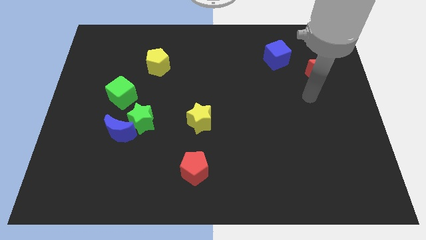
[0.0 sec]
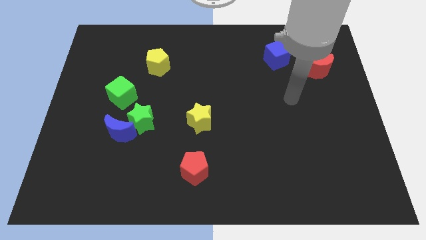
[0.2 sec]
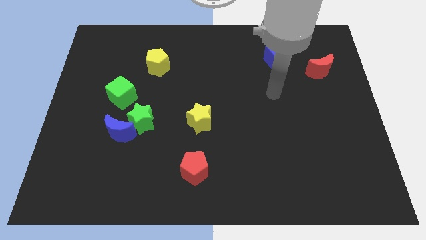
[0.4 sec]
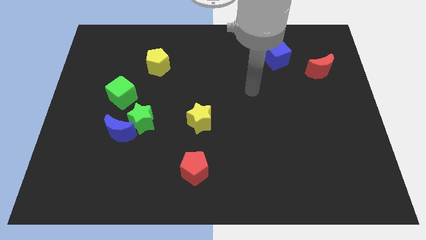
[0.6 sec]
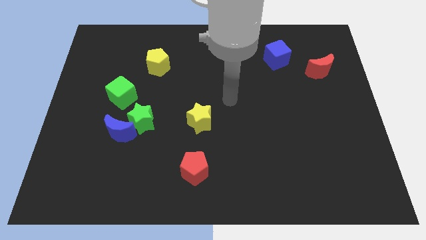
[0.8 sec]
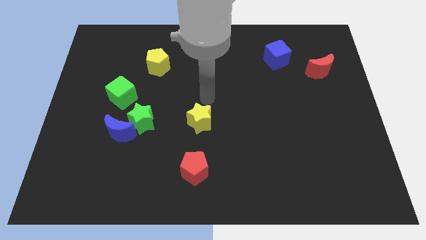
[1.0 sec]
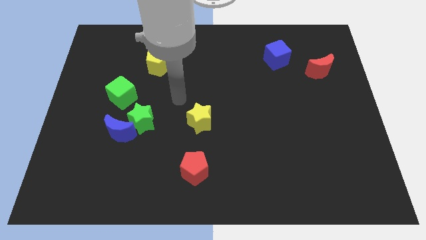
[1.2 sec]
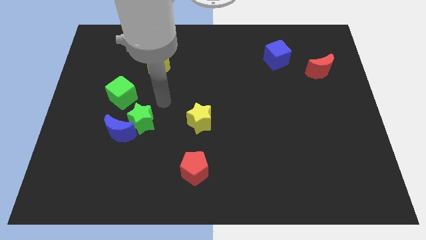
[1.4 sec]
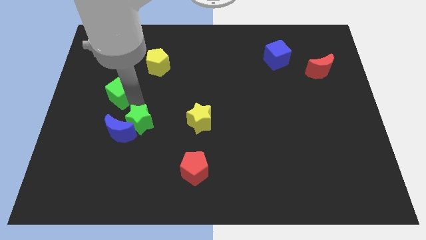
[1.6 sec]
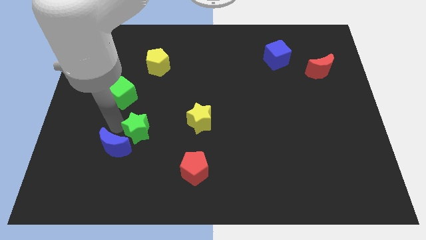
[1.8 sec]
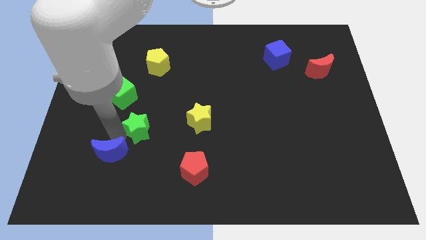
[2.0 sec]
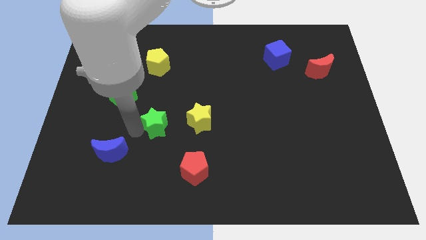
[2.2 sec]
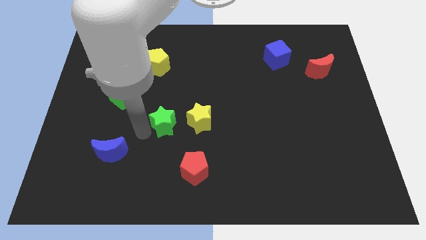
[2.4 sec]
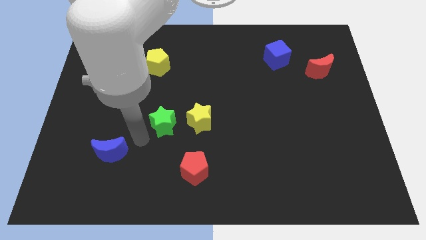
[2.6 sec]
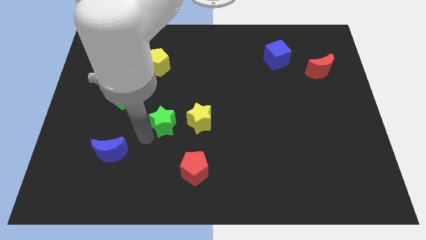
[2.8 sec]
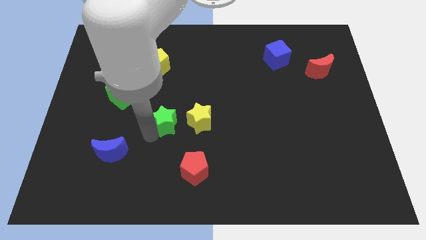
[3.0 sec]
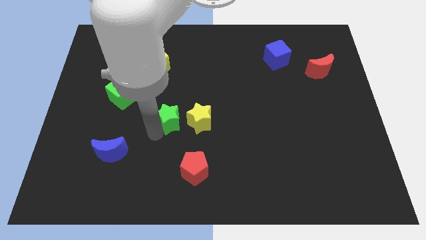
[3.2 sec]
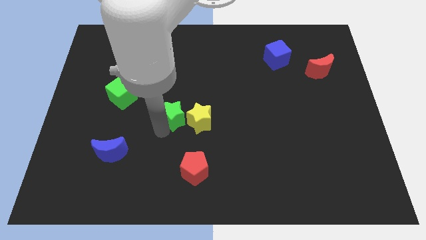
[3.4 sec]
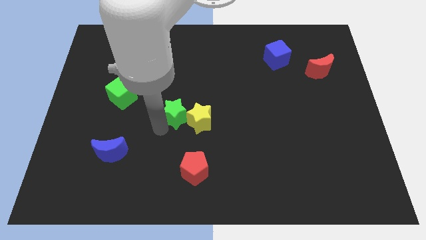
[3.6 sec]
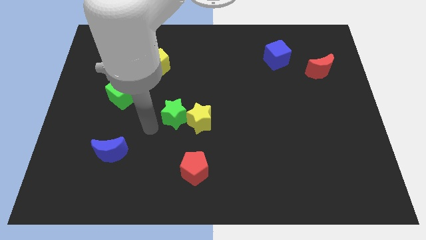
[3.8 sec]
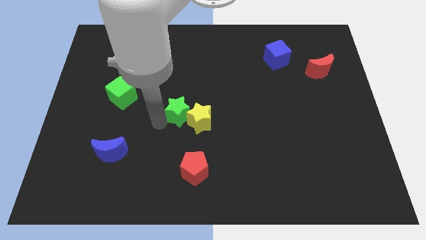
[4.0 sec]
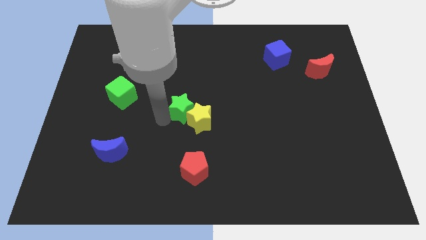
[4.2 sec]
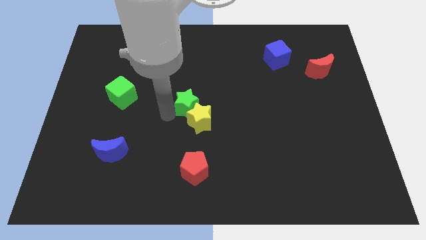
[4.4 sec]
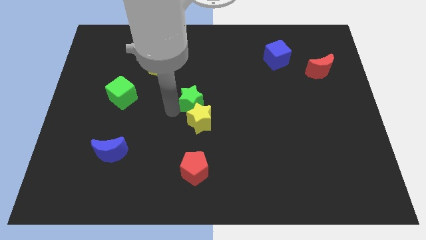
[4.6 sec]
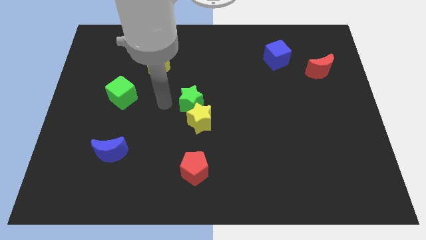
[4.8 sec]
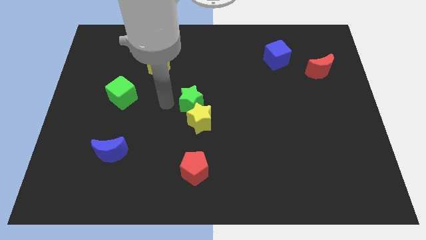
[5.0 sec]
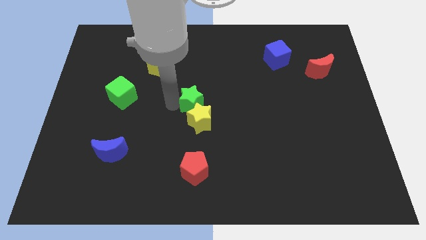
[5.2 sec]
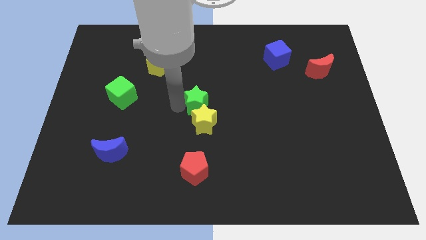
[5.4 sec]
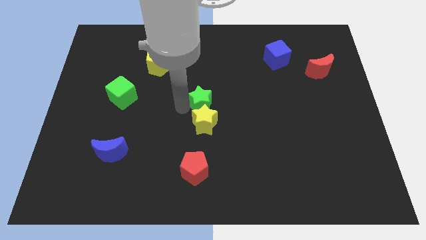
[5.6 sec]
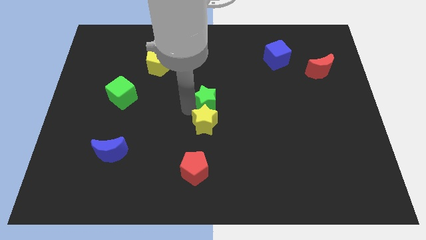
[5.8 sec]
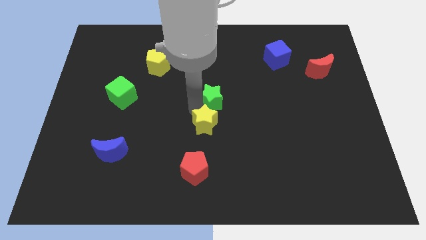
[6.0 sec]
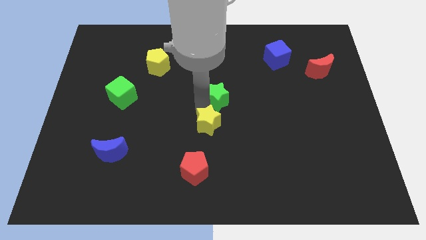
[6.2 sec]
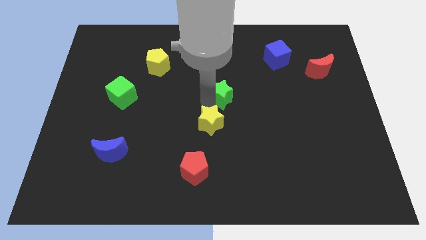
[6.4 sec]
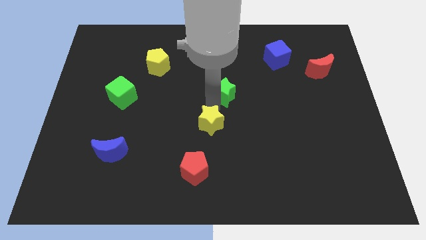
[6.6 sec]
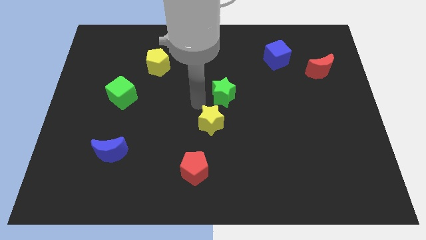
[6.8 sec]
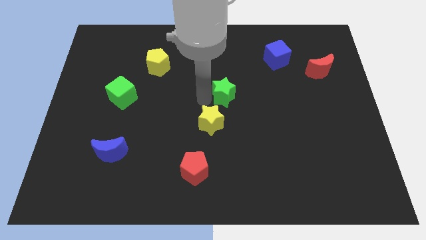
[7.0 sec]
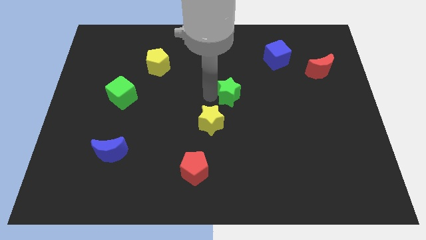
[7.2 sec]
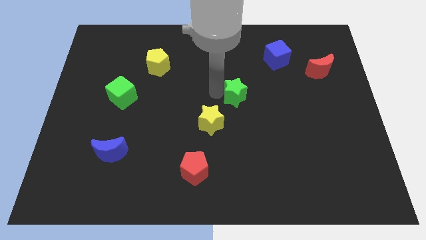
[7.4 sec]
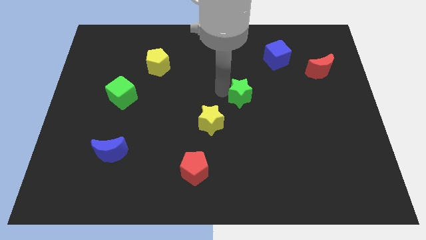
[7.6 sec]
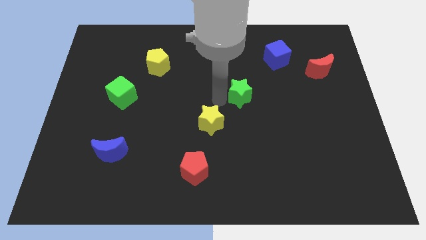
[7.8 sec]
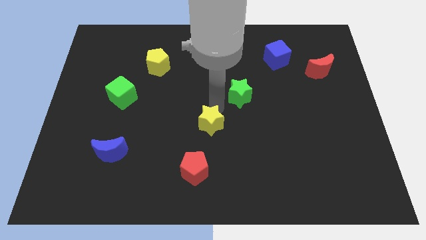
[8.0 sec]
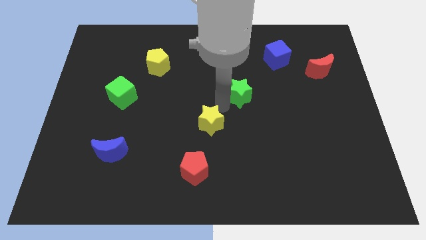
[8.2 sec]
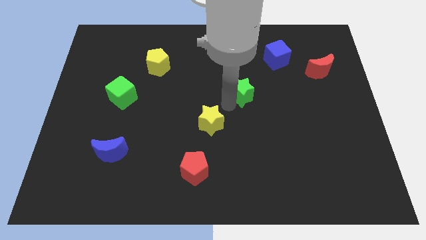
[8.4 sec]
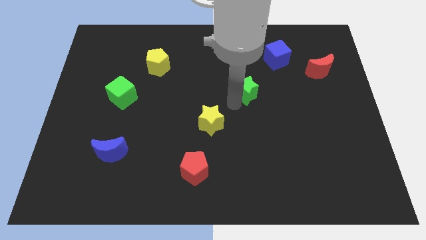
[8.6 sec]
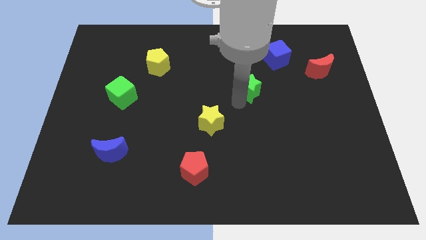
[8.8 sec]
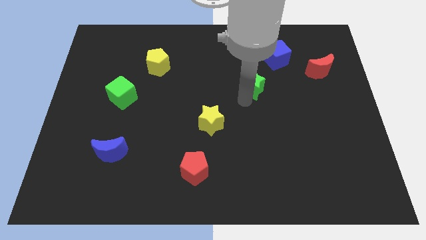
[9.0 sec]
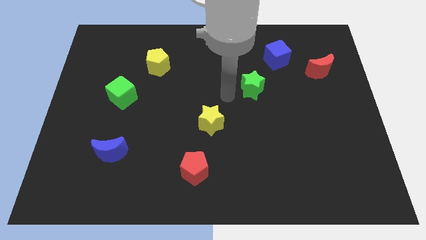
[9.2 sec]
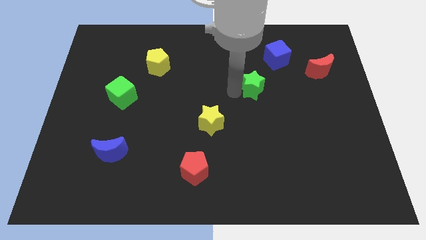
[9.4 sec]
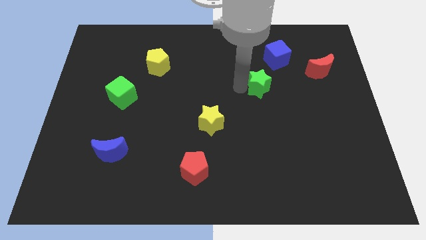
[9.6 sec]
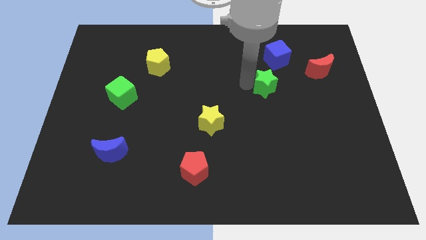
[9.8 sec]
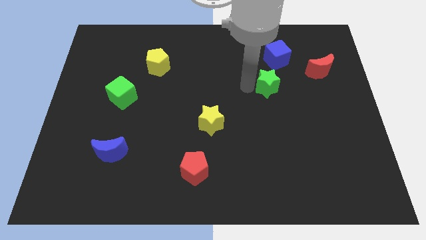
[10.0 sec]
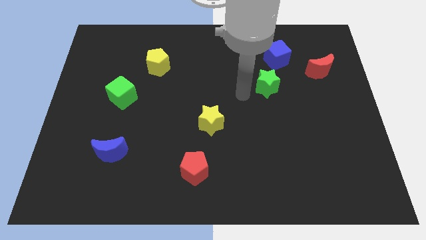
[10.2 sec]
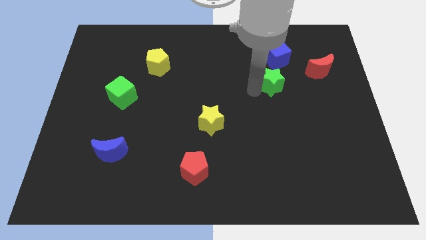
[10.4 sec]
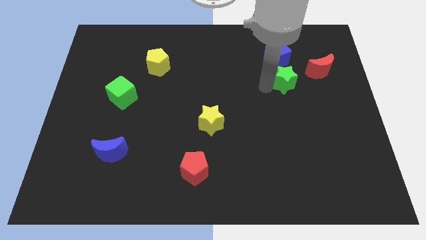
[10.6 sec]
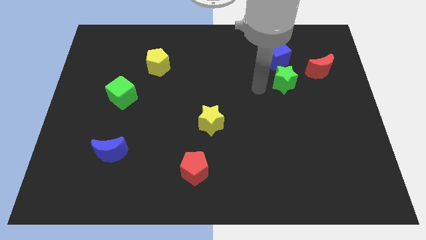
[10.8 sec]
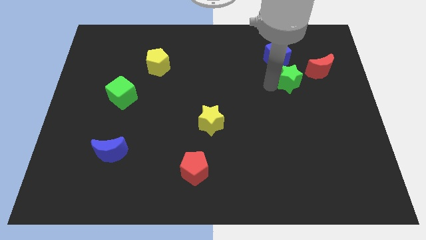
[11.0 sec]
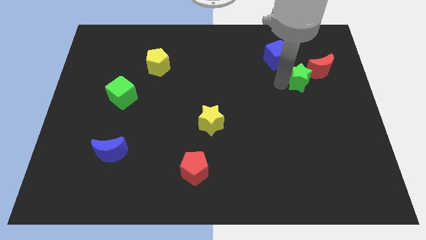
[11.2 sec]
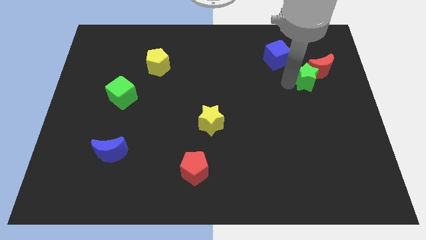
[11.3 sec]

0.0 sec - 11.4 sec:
push the green star to the red moon

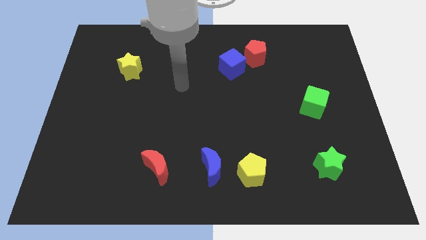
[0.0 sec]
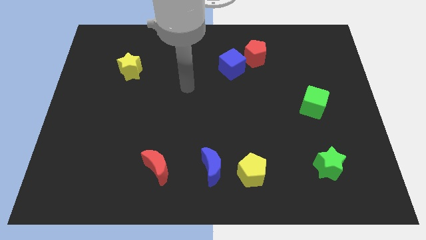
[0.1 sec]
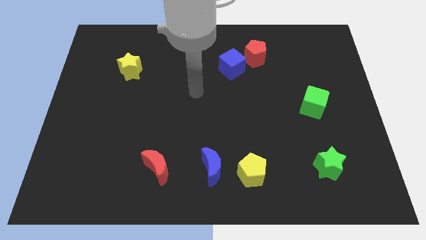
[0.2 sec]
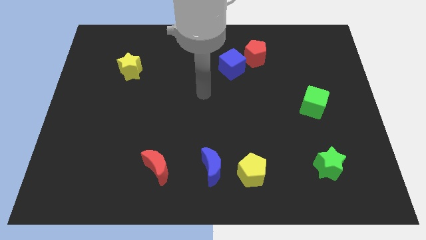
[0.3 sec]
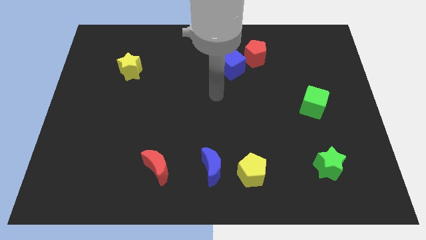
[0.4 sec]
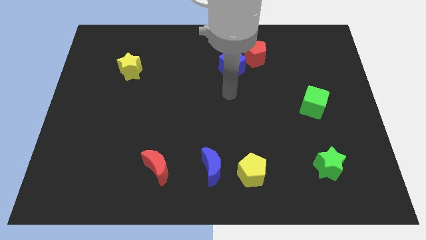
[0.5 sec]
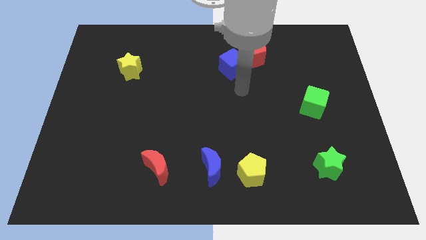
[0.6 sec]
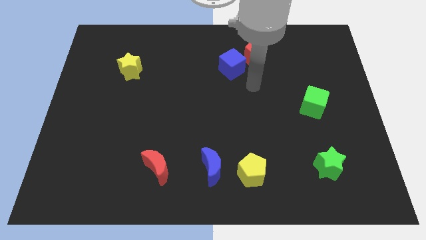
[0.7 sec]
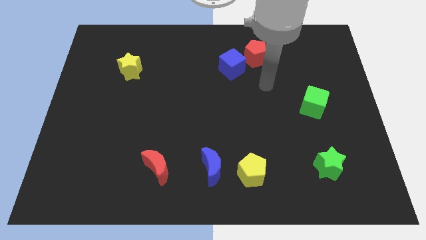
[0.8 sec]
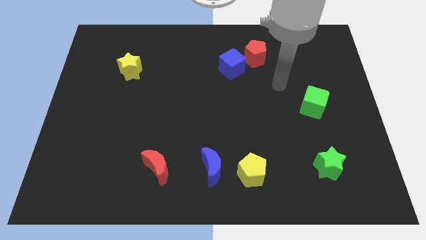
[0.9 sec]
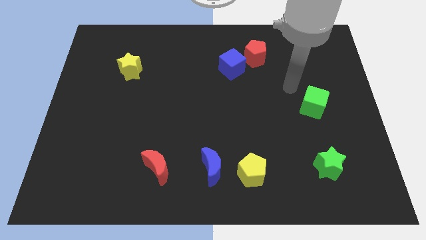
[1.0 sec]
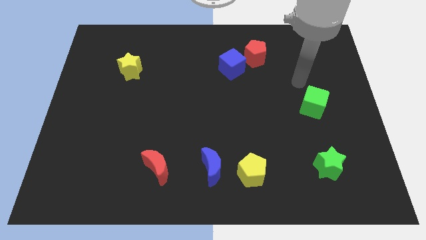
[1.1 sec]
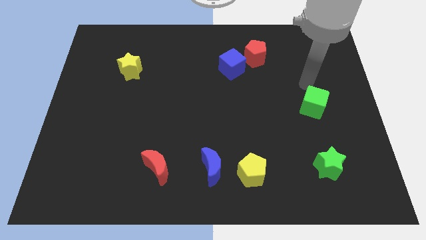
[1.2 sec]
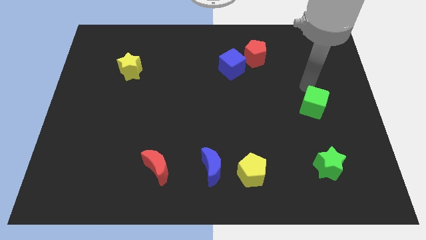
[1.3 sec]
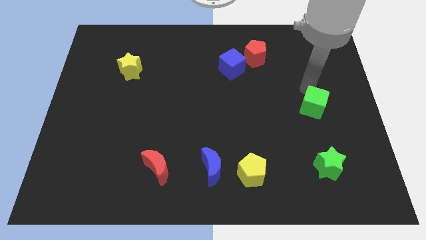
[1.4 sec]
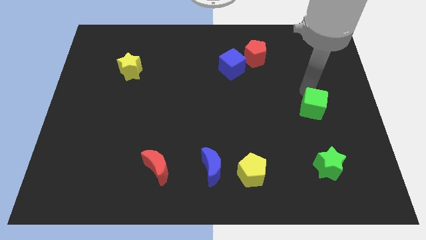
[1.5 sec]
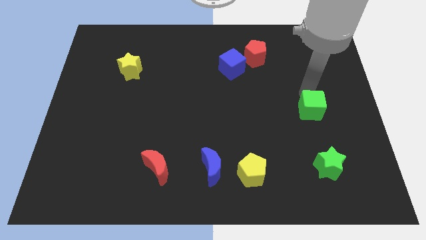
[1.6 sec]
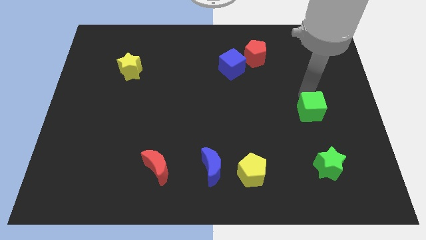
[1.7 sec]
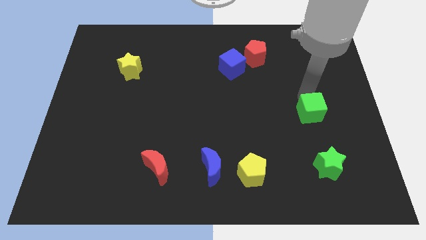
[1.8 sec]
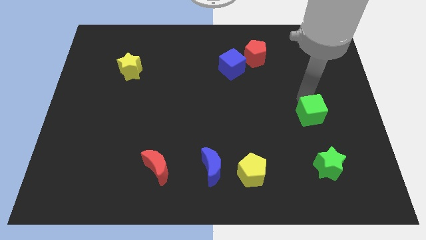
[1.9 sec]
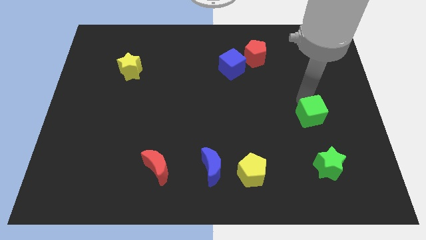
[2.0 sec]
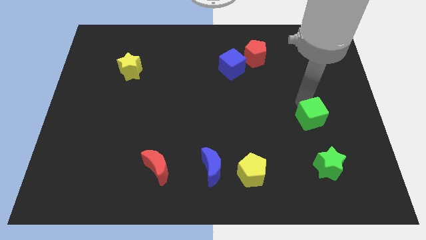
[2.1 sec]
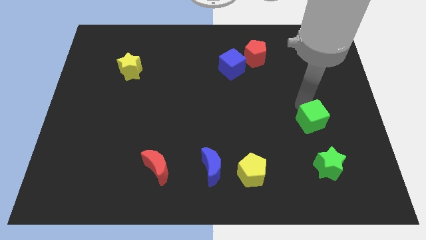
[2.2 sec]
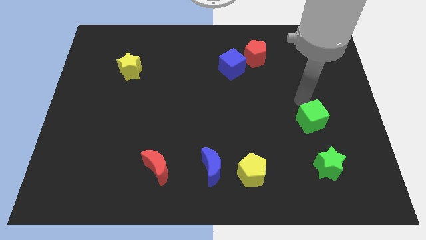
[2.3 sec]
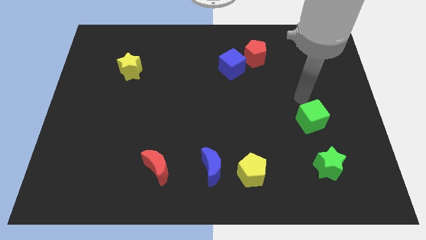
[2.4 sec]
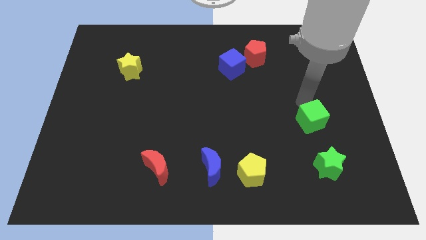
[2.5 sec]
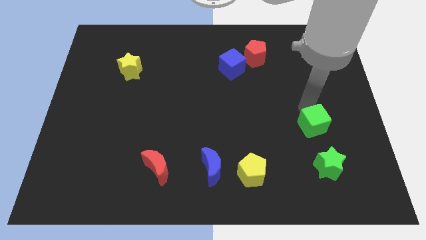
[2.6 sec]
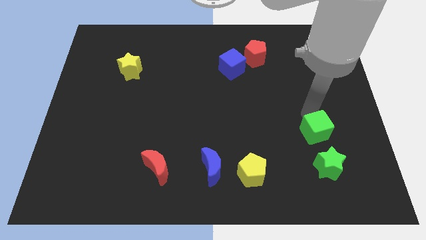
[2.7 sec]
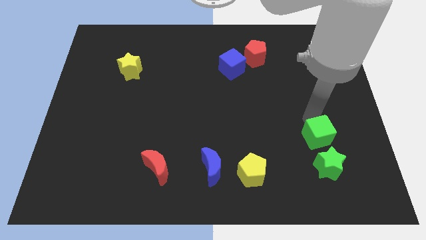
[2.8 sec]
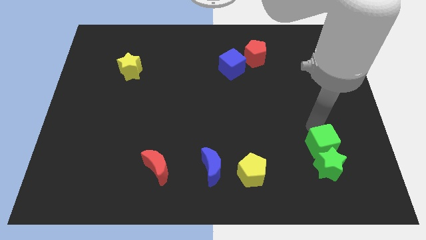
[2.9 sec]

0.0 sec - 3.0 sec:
push the green cube next to the green star
